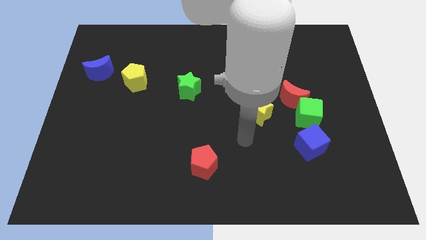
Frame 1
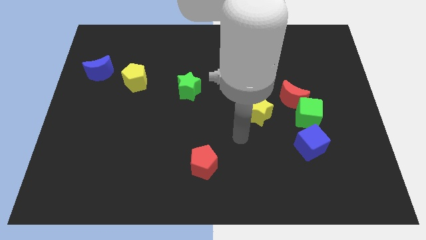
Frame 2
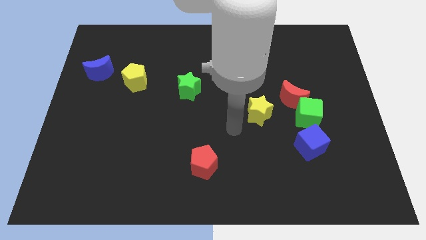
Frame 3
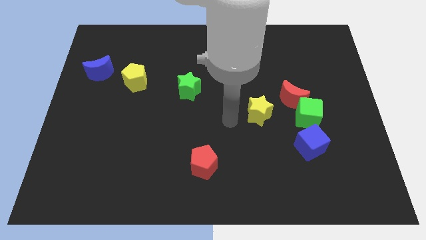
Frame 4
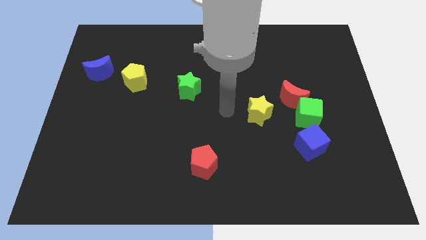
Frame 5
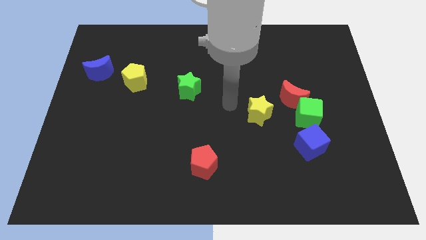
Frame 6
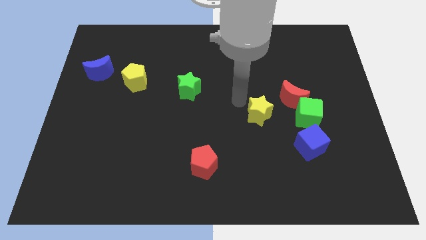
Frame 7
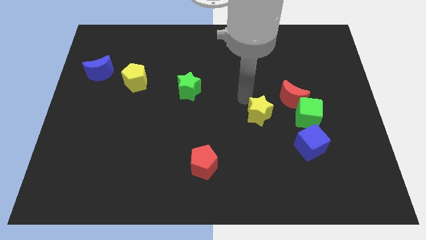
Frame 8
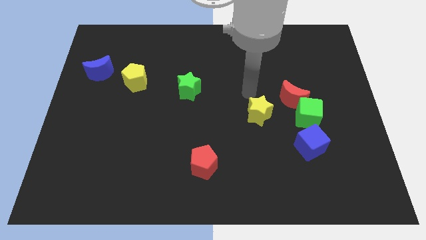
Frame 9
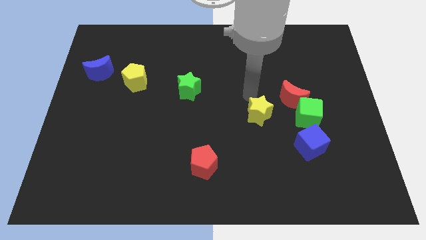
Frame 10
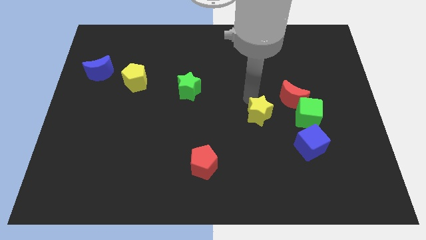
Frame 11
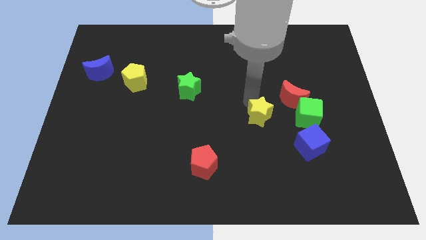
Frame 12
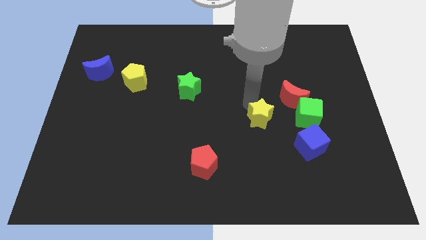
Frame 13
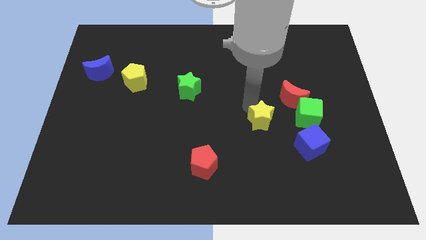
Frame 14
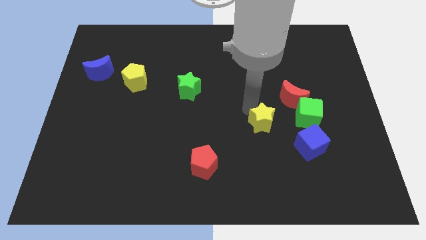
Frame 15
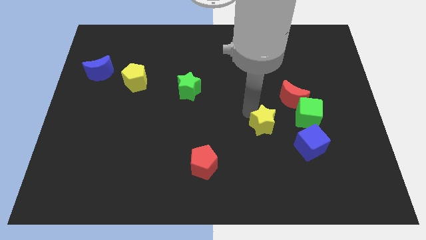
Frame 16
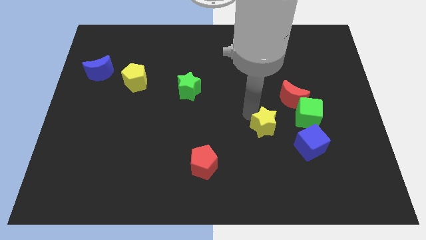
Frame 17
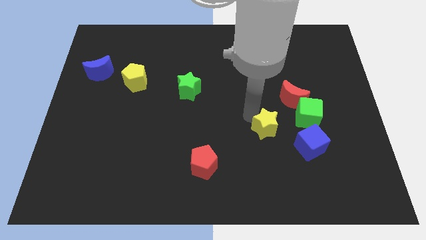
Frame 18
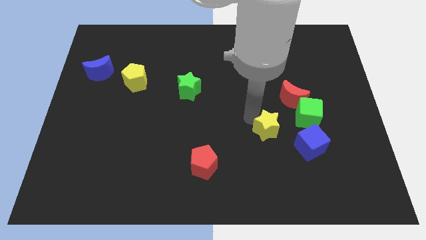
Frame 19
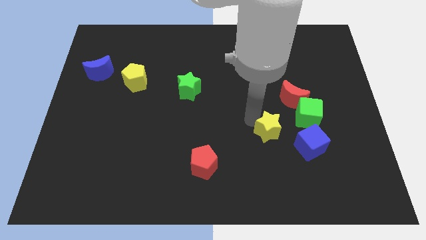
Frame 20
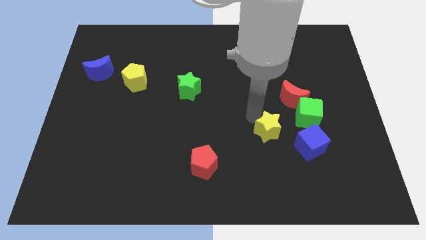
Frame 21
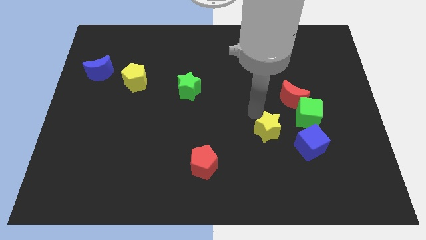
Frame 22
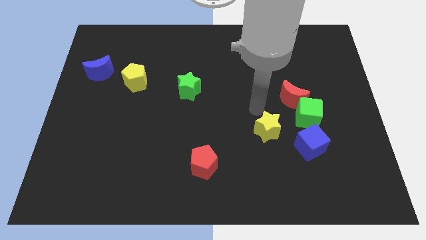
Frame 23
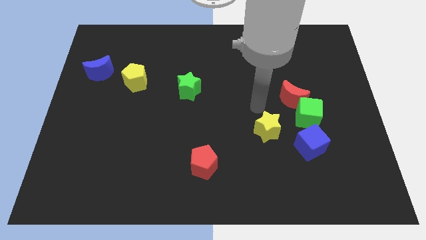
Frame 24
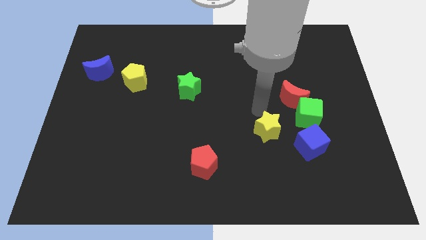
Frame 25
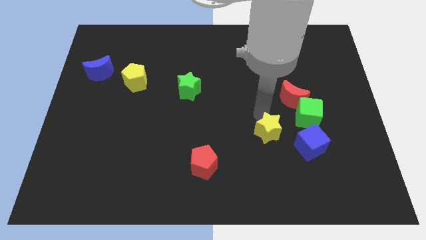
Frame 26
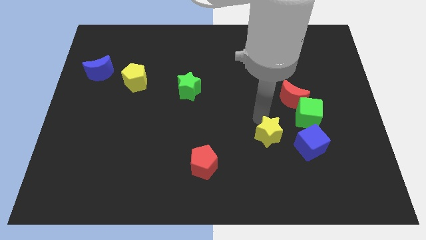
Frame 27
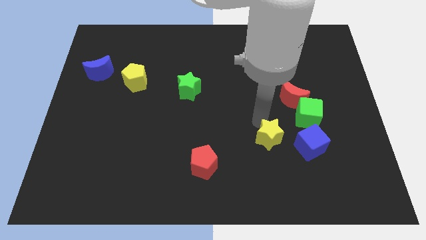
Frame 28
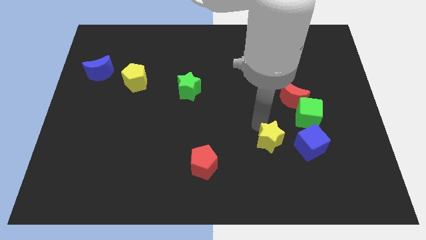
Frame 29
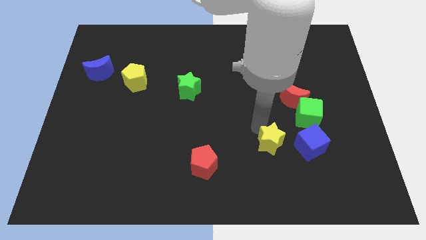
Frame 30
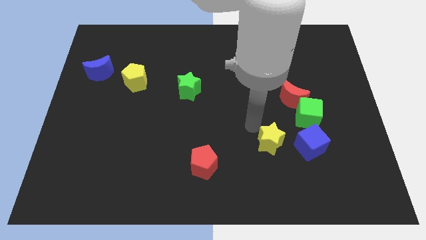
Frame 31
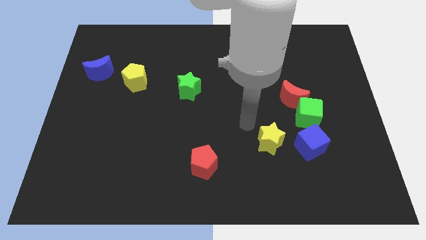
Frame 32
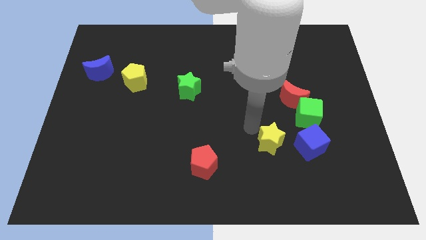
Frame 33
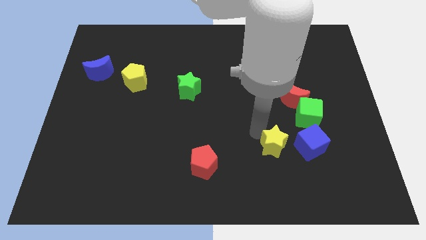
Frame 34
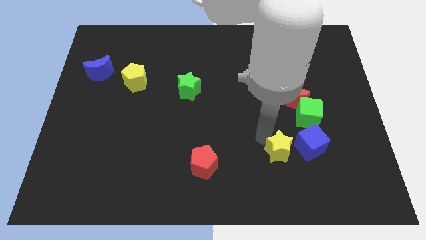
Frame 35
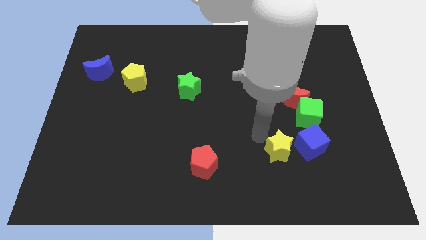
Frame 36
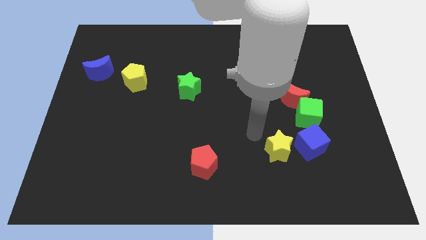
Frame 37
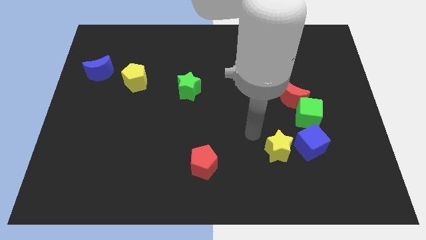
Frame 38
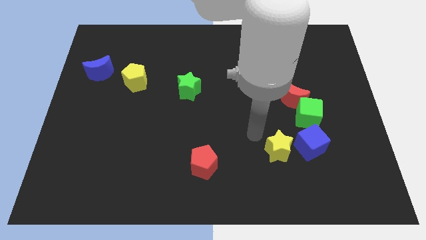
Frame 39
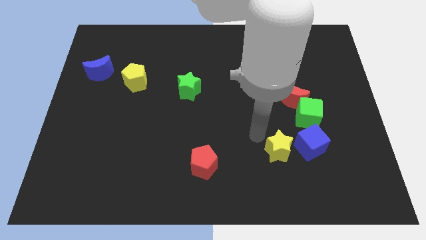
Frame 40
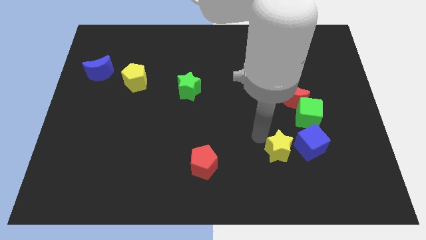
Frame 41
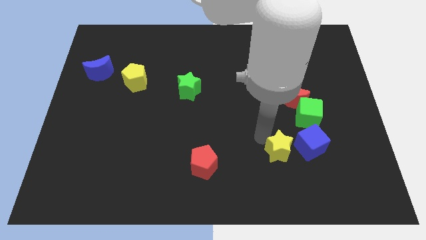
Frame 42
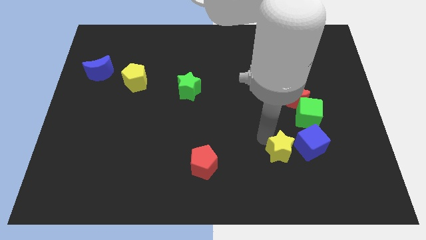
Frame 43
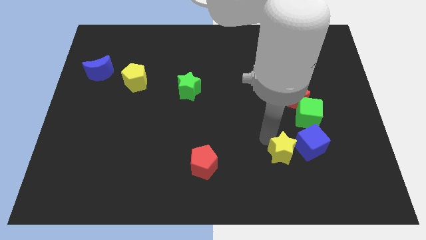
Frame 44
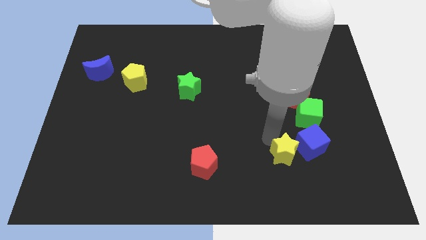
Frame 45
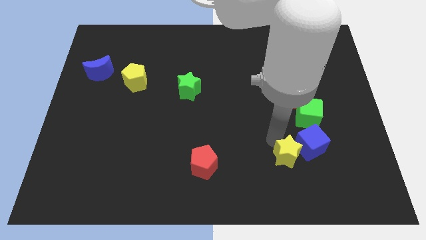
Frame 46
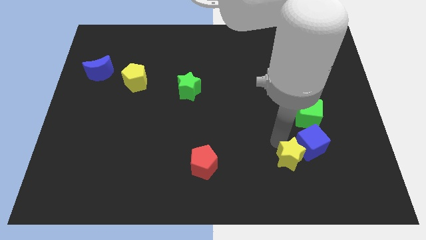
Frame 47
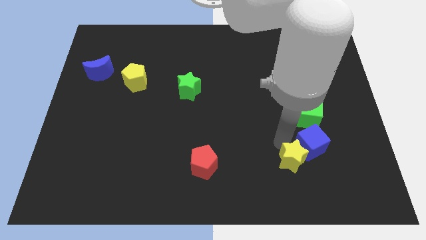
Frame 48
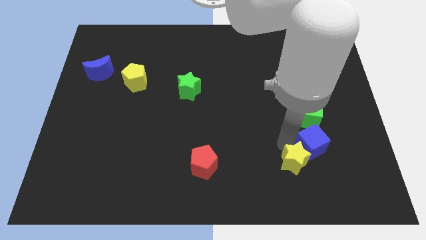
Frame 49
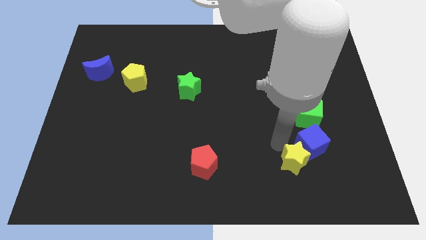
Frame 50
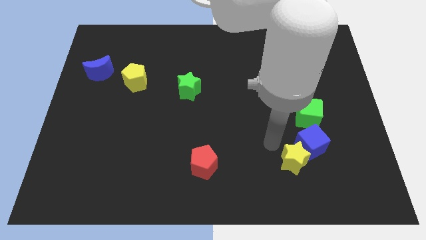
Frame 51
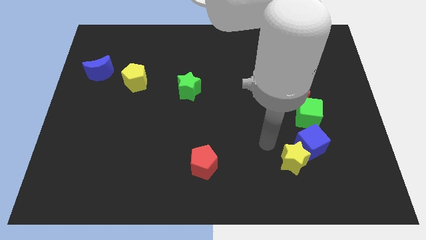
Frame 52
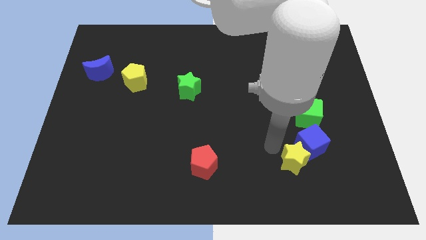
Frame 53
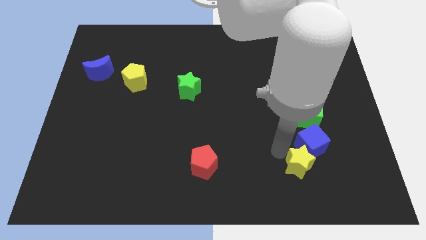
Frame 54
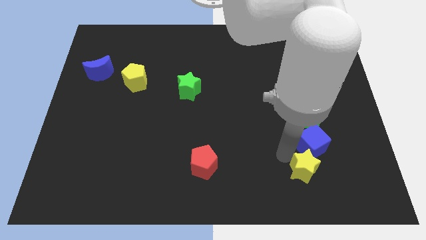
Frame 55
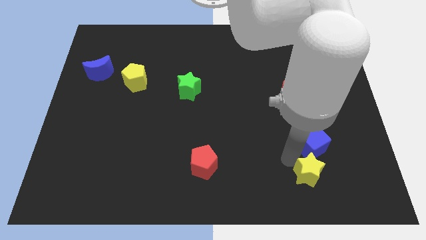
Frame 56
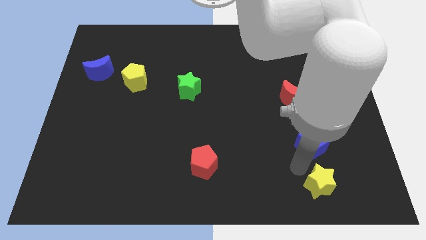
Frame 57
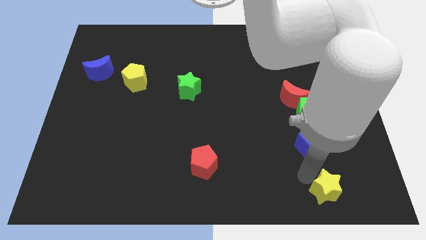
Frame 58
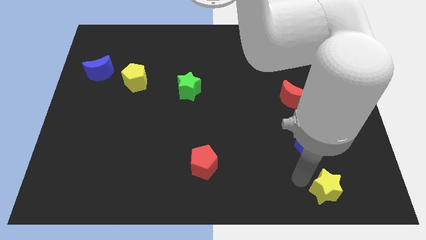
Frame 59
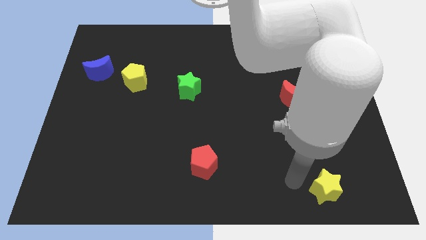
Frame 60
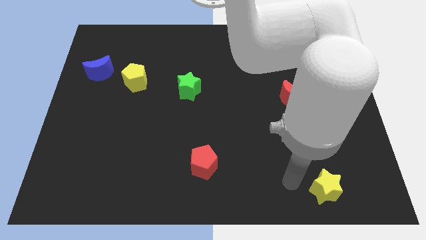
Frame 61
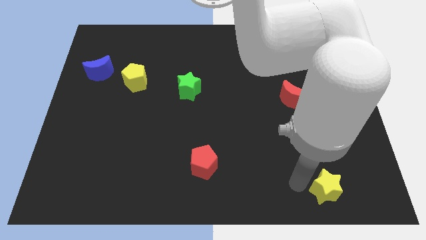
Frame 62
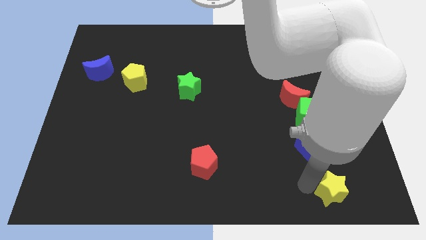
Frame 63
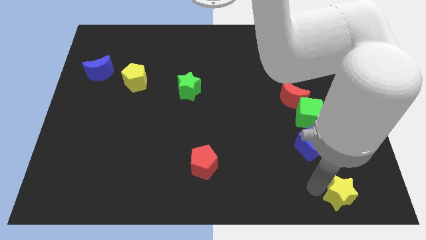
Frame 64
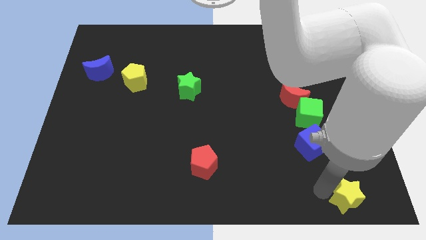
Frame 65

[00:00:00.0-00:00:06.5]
slide the yellow star to the bottom right

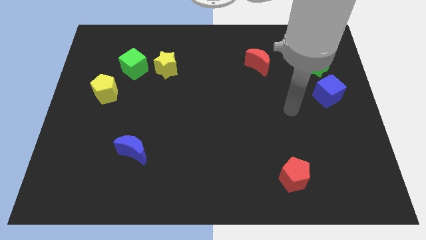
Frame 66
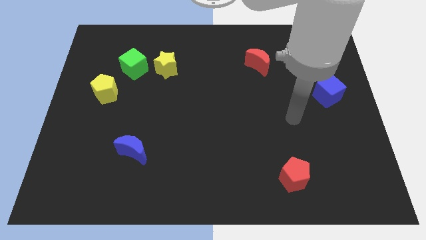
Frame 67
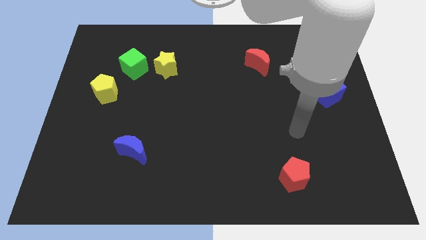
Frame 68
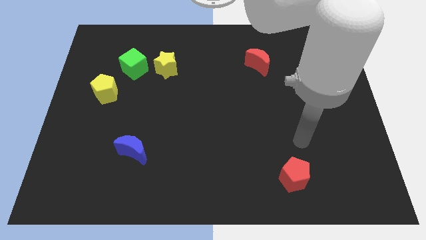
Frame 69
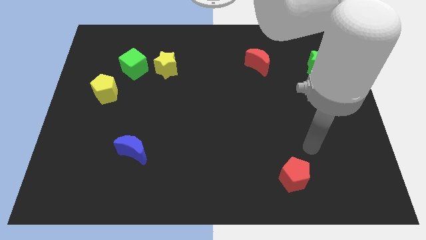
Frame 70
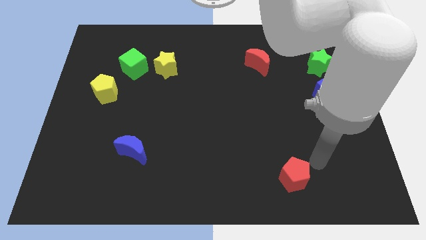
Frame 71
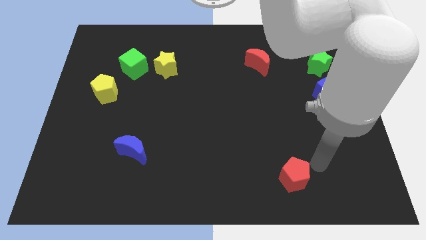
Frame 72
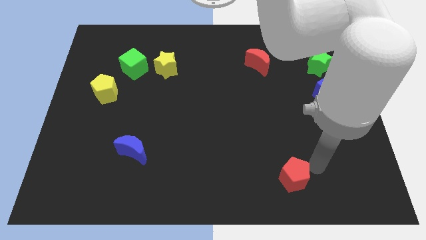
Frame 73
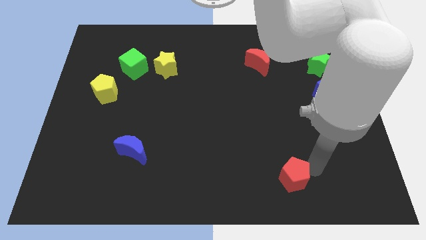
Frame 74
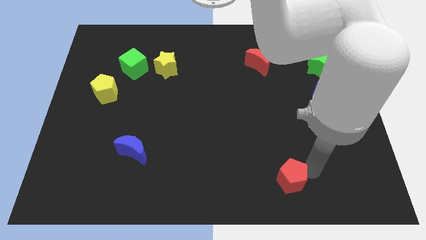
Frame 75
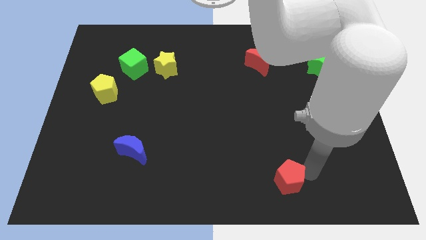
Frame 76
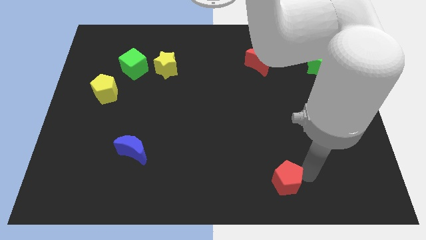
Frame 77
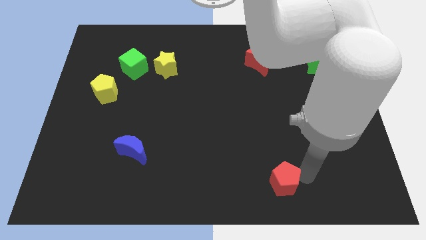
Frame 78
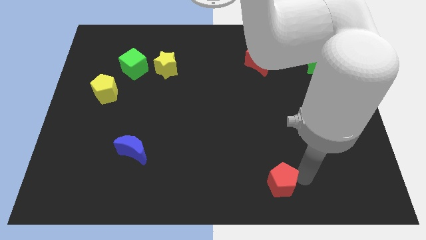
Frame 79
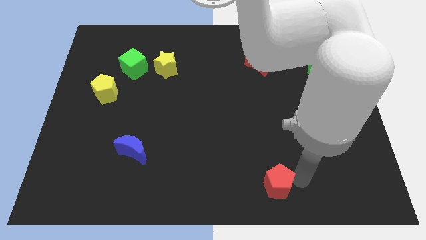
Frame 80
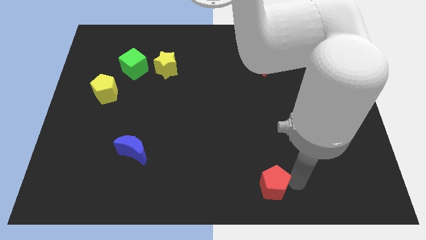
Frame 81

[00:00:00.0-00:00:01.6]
slide the red pentagon to the bottom side
